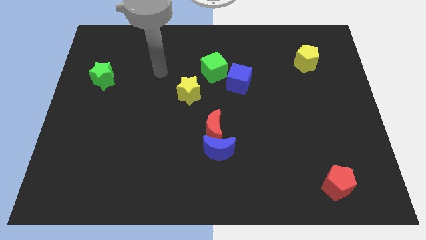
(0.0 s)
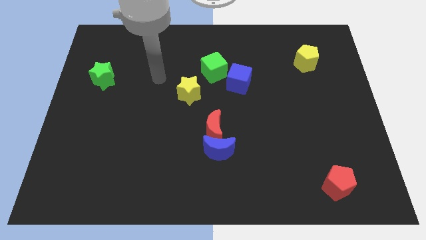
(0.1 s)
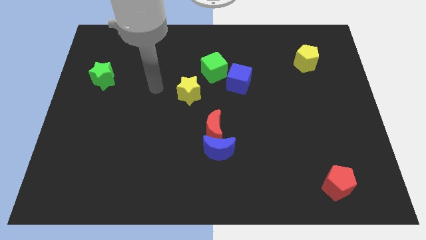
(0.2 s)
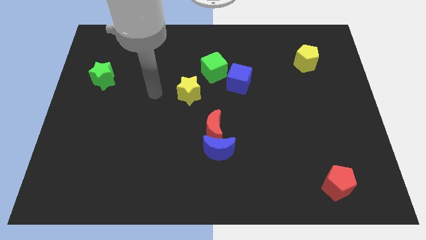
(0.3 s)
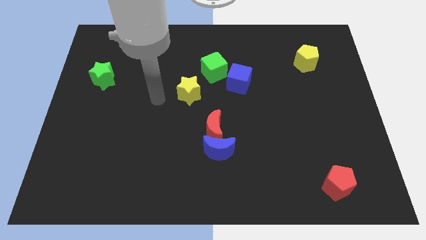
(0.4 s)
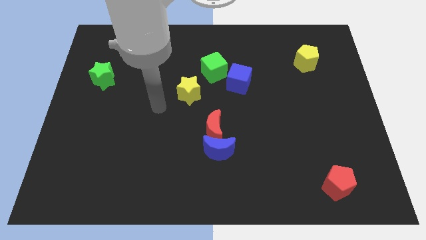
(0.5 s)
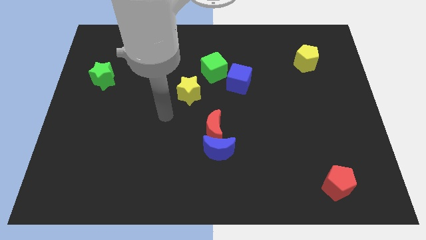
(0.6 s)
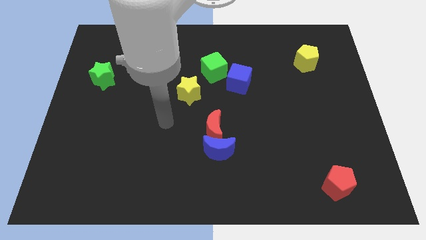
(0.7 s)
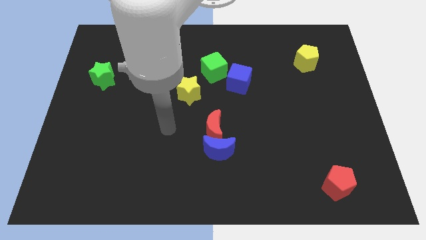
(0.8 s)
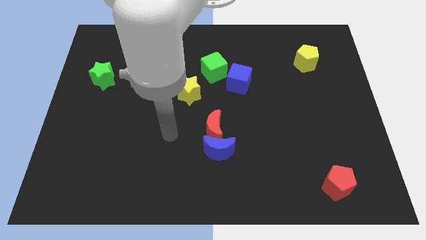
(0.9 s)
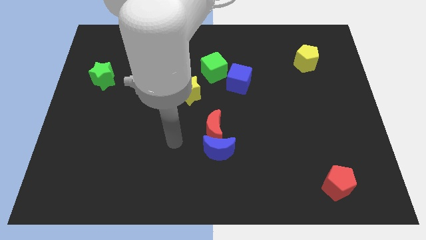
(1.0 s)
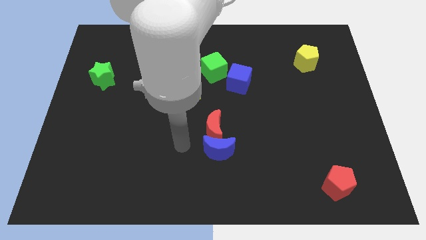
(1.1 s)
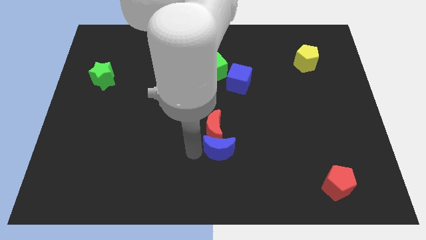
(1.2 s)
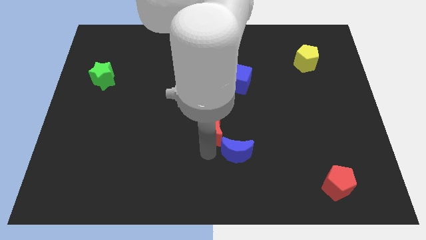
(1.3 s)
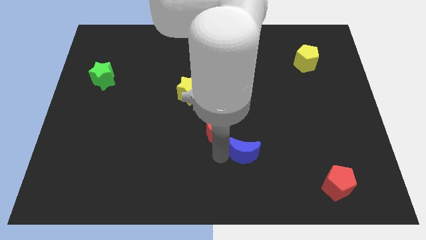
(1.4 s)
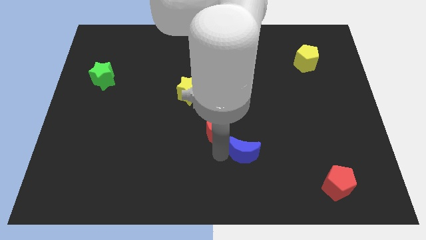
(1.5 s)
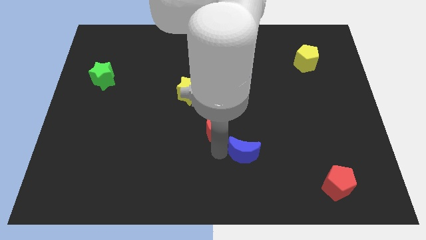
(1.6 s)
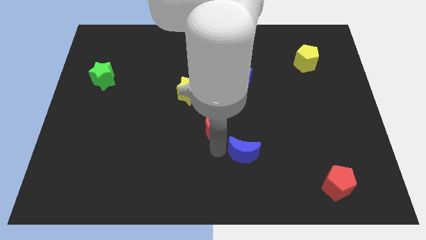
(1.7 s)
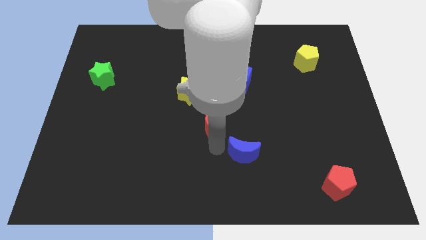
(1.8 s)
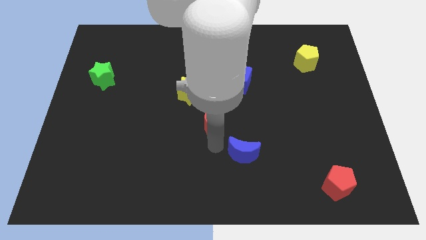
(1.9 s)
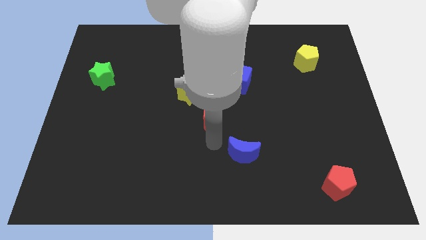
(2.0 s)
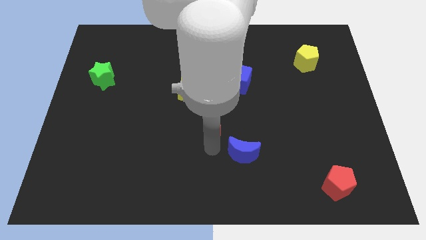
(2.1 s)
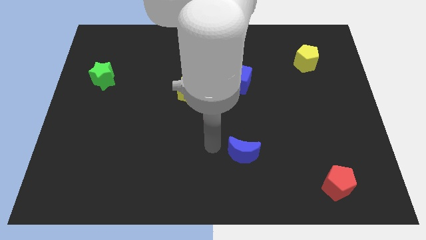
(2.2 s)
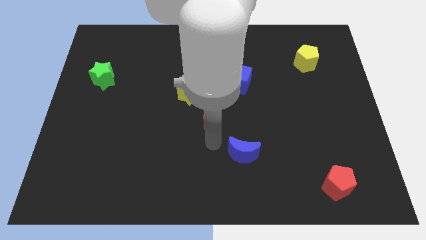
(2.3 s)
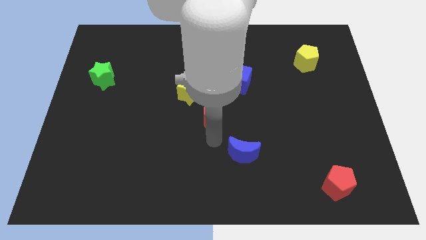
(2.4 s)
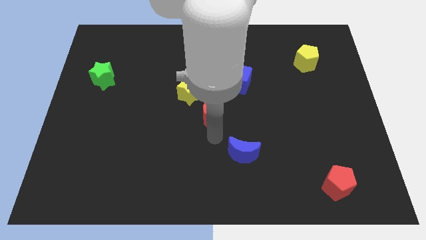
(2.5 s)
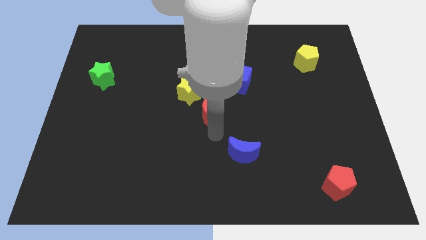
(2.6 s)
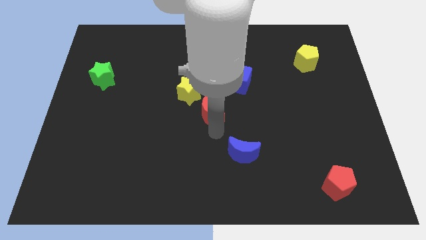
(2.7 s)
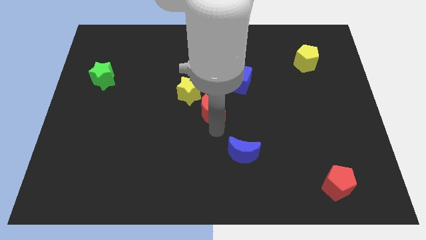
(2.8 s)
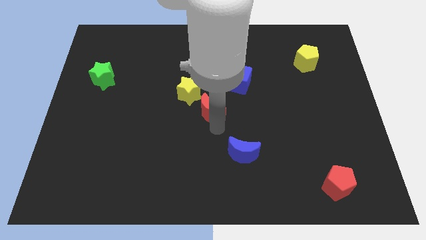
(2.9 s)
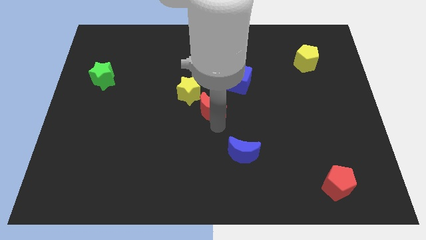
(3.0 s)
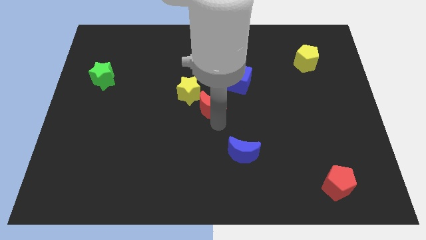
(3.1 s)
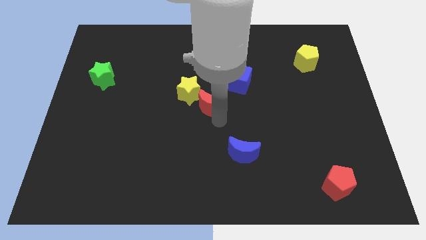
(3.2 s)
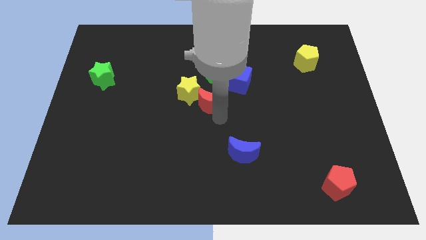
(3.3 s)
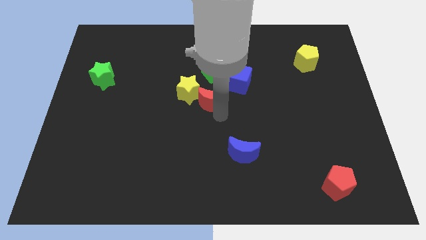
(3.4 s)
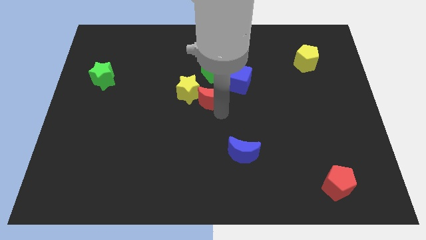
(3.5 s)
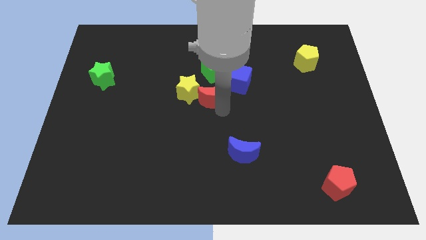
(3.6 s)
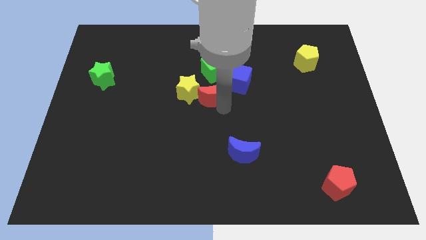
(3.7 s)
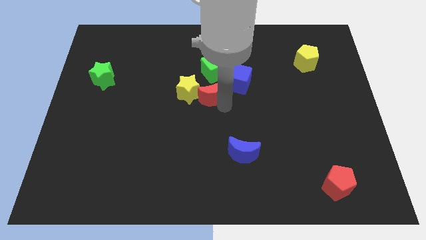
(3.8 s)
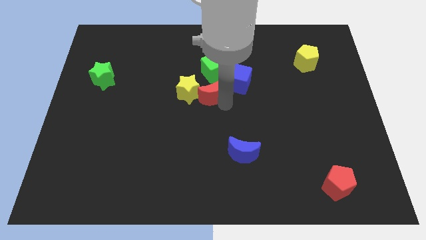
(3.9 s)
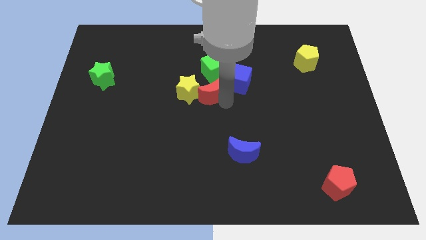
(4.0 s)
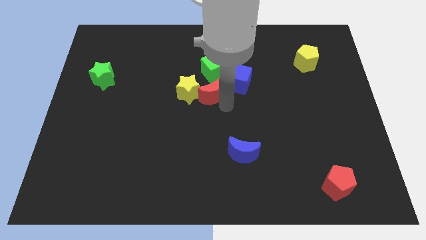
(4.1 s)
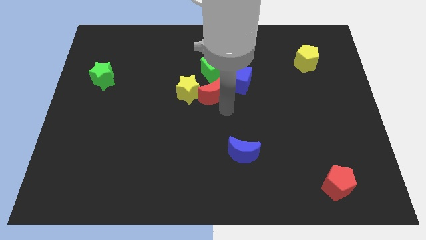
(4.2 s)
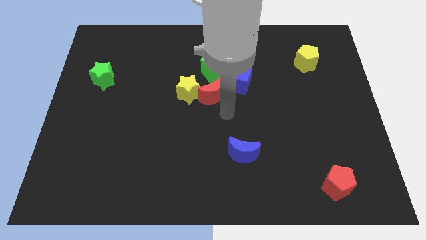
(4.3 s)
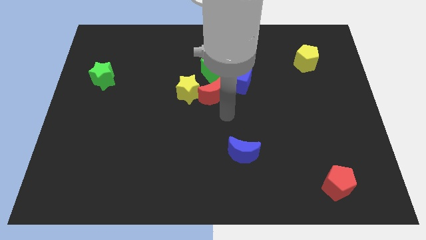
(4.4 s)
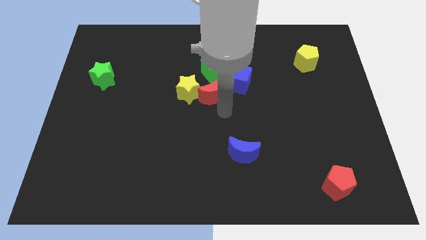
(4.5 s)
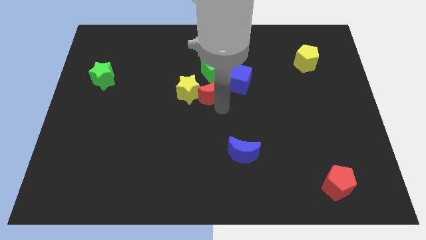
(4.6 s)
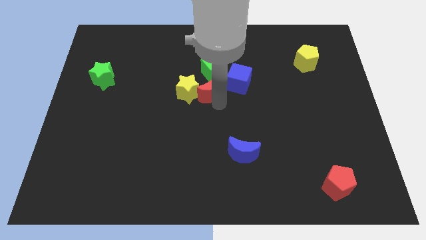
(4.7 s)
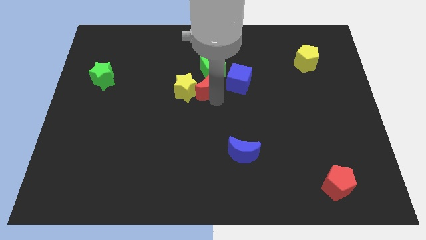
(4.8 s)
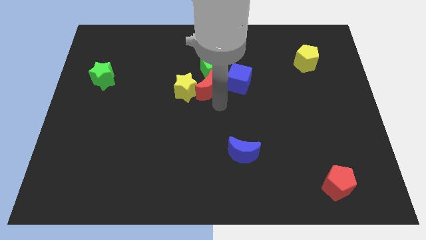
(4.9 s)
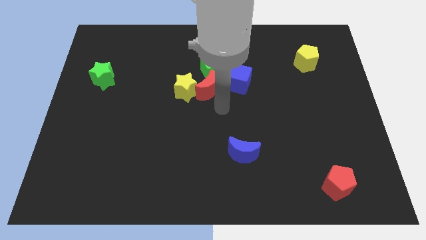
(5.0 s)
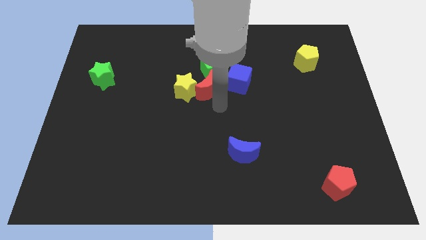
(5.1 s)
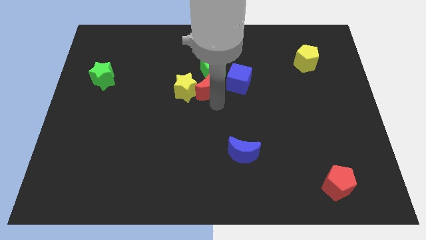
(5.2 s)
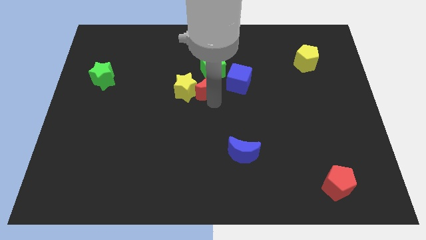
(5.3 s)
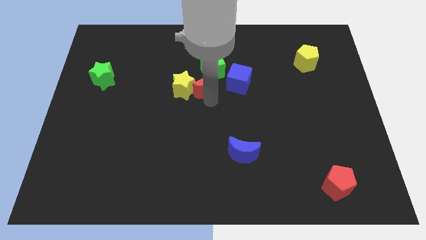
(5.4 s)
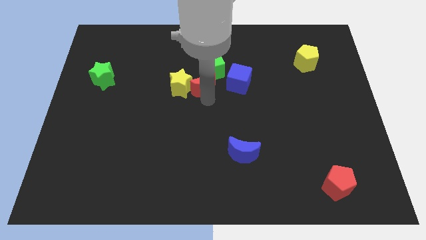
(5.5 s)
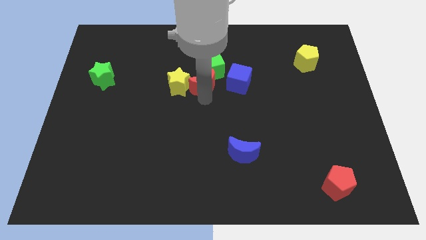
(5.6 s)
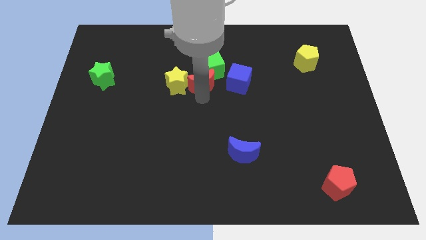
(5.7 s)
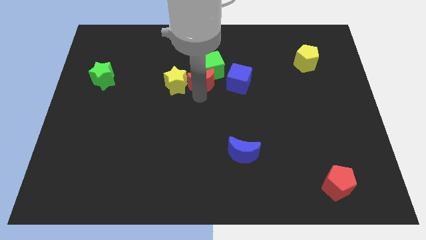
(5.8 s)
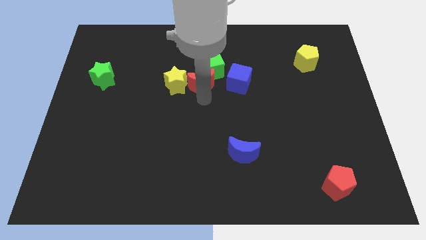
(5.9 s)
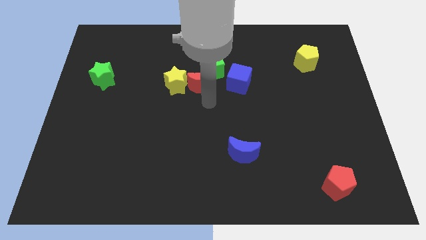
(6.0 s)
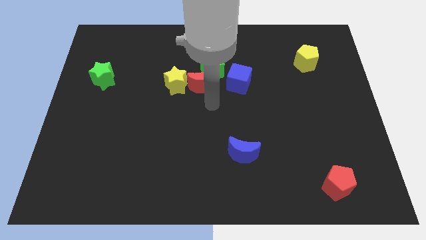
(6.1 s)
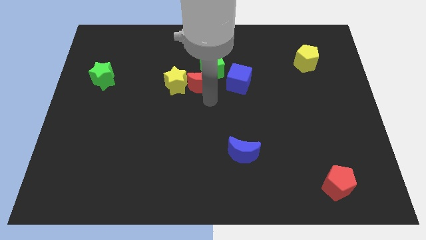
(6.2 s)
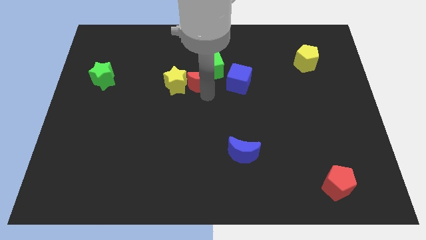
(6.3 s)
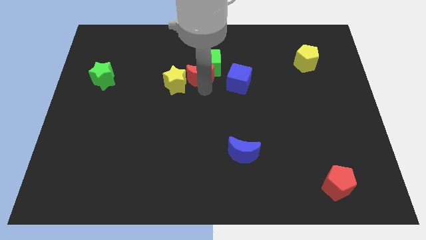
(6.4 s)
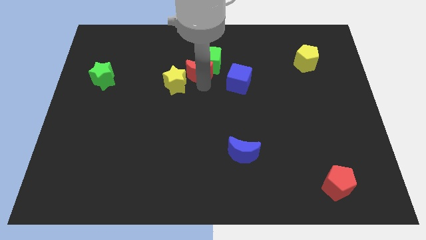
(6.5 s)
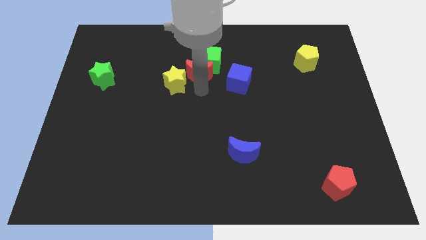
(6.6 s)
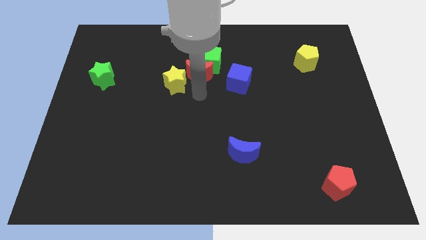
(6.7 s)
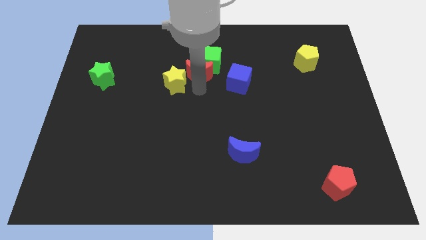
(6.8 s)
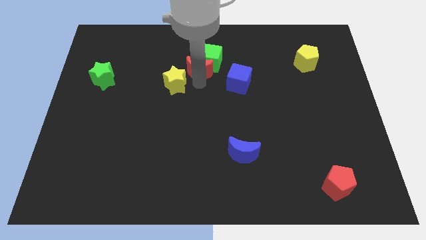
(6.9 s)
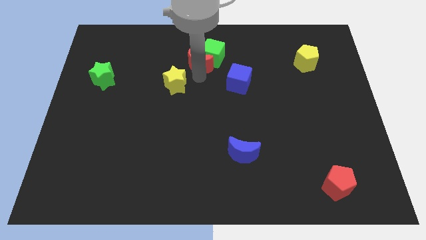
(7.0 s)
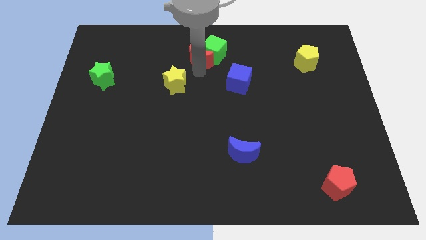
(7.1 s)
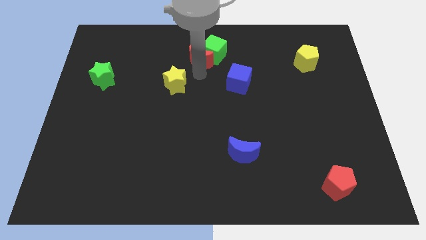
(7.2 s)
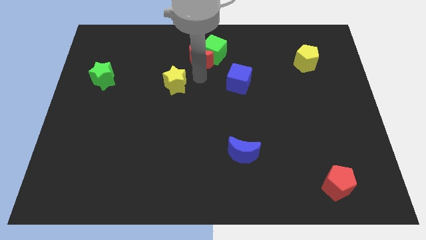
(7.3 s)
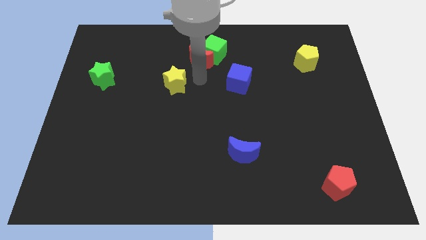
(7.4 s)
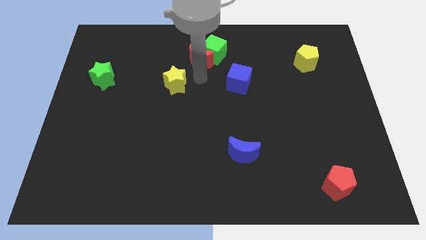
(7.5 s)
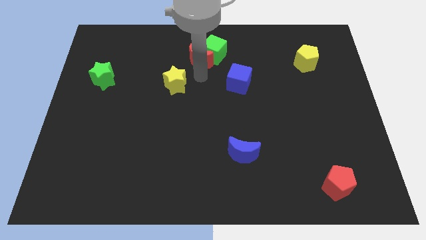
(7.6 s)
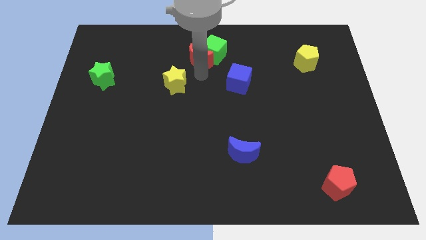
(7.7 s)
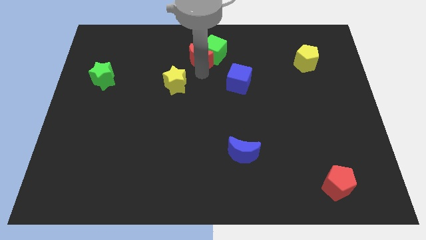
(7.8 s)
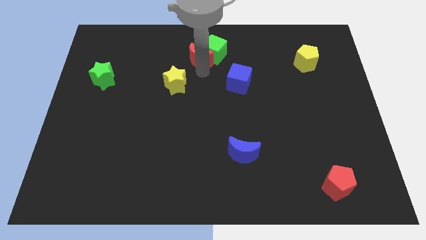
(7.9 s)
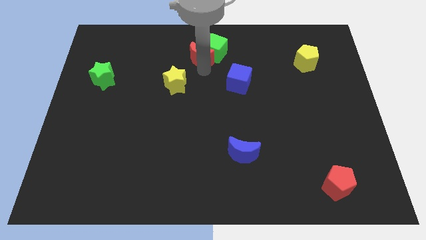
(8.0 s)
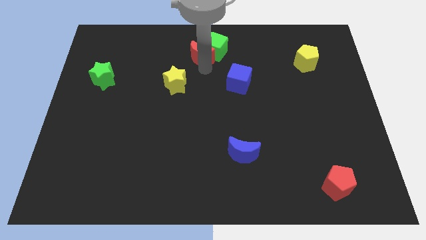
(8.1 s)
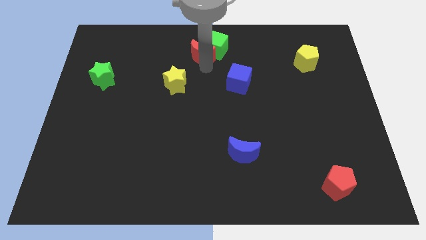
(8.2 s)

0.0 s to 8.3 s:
put the red moon to the top
